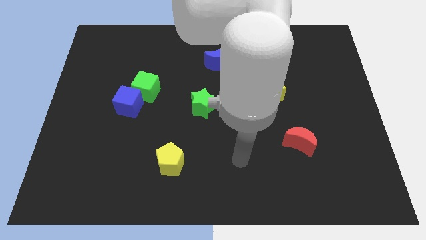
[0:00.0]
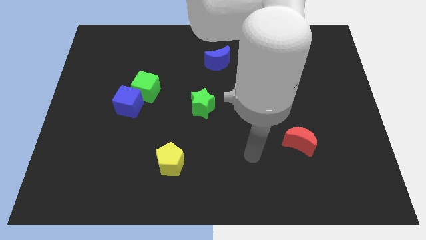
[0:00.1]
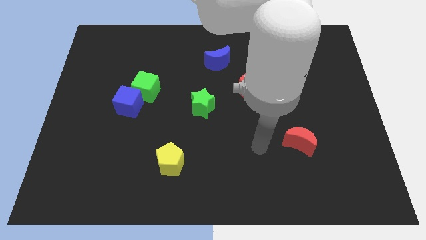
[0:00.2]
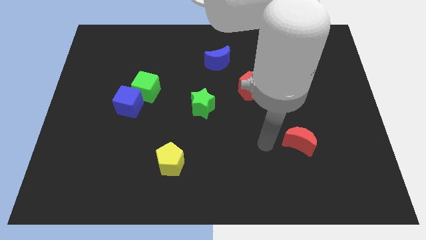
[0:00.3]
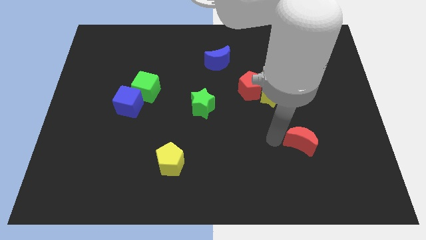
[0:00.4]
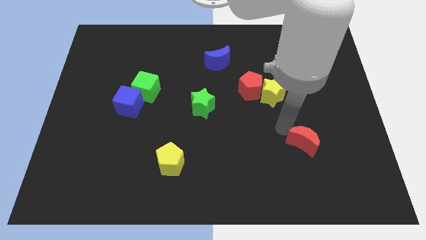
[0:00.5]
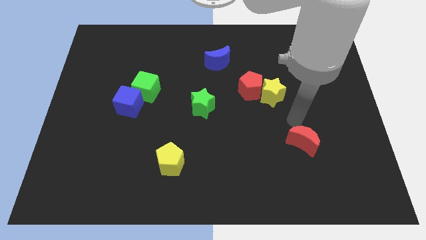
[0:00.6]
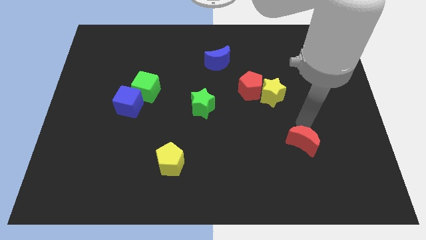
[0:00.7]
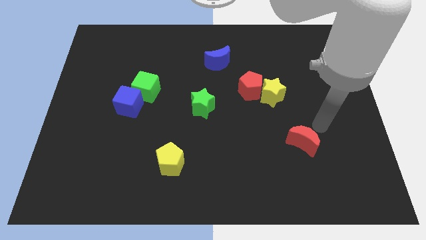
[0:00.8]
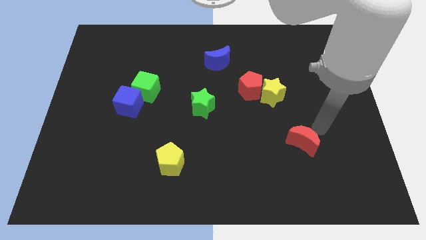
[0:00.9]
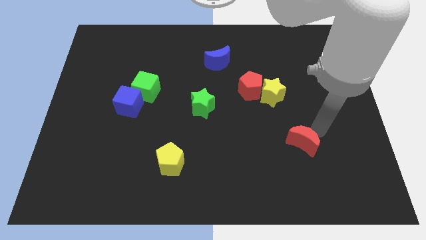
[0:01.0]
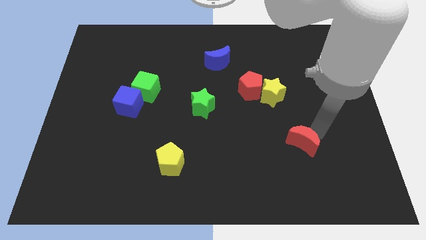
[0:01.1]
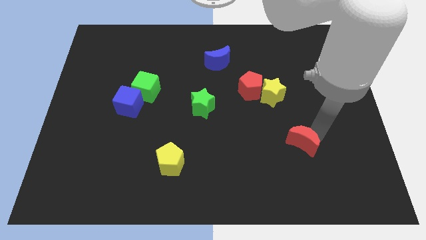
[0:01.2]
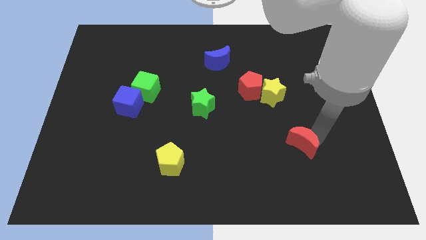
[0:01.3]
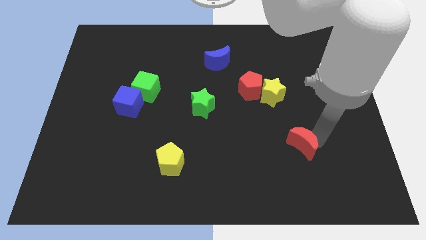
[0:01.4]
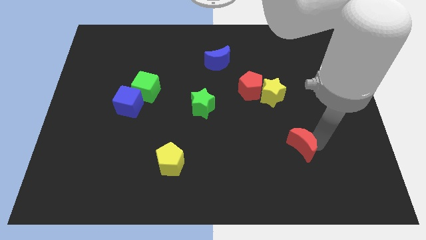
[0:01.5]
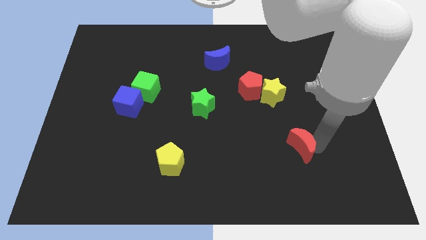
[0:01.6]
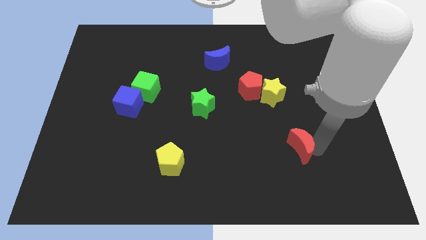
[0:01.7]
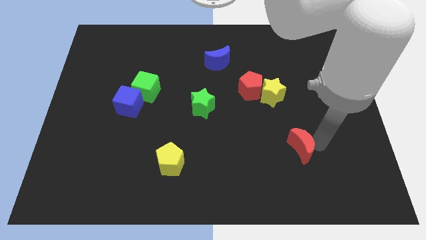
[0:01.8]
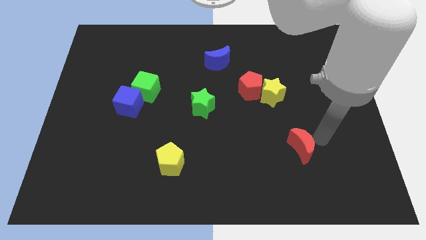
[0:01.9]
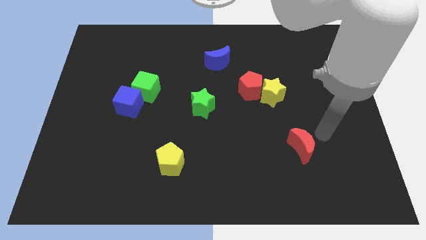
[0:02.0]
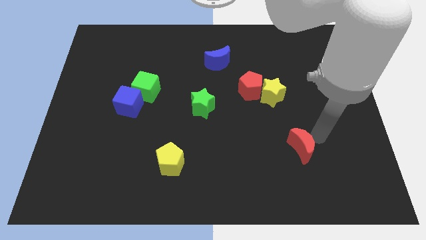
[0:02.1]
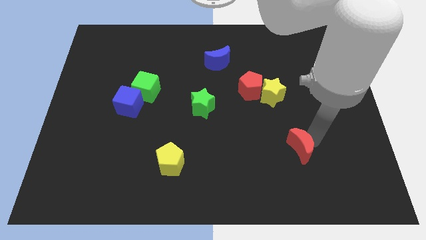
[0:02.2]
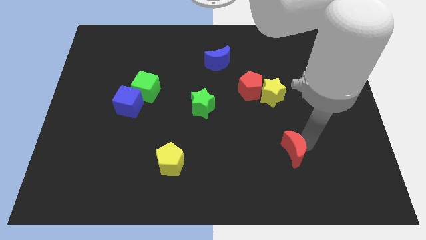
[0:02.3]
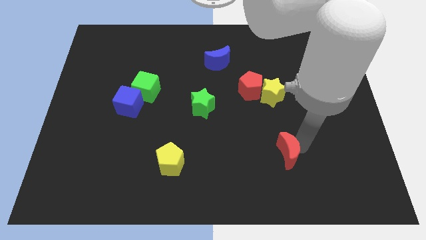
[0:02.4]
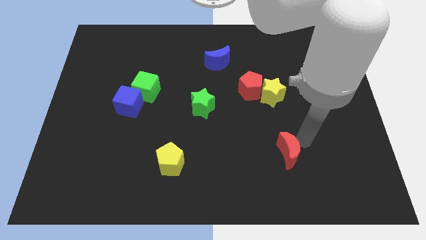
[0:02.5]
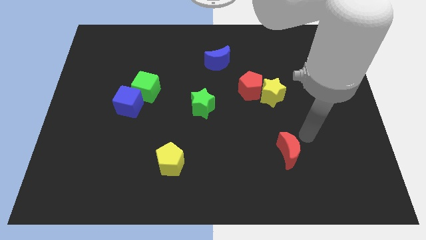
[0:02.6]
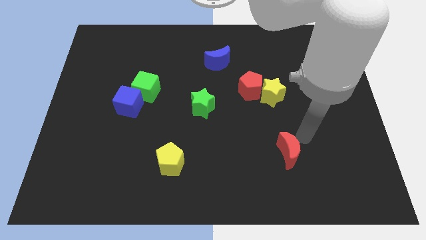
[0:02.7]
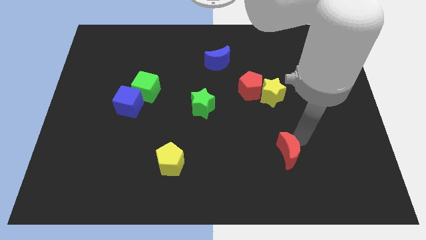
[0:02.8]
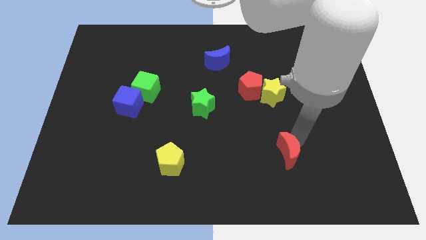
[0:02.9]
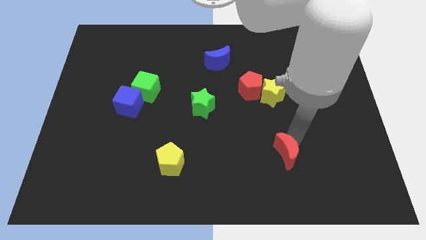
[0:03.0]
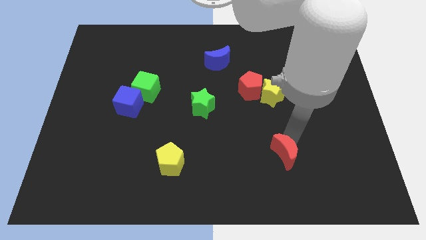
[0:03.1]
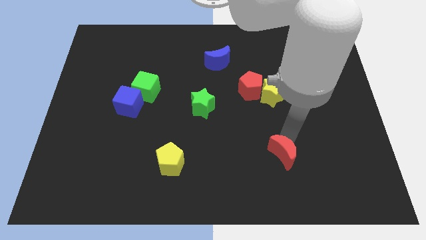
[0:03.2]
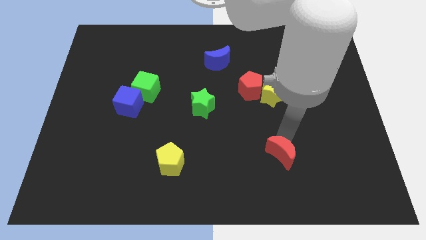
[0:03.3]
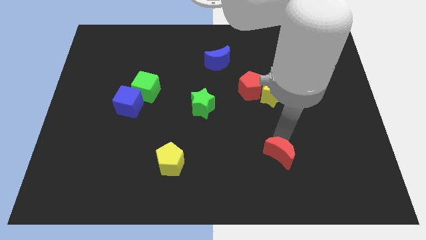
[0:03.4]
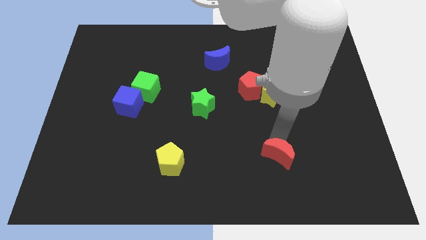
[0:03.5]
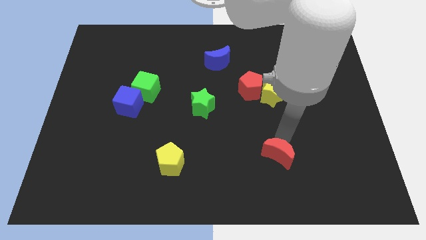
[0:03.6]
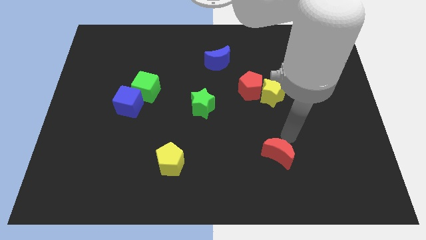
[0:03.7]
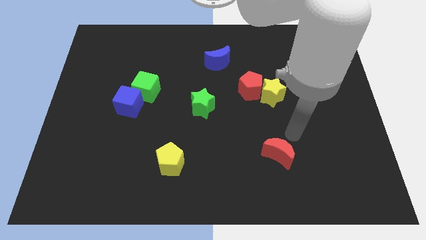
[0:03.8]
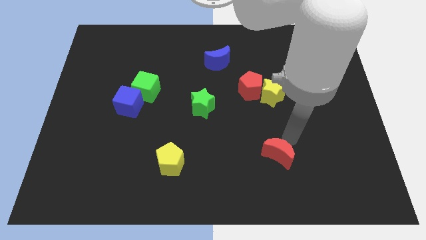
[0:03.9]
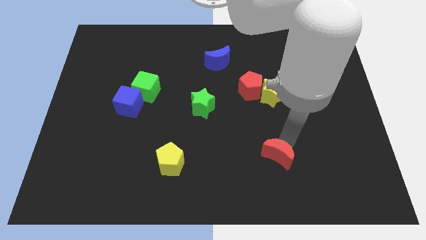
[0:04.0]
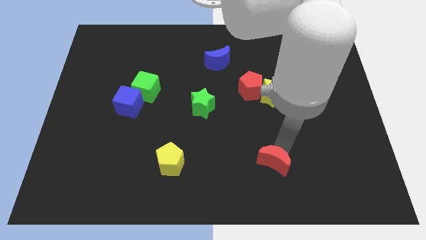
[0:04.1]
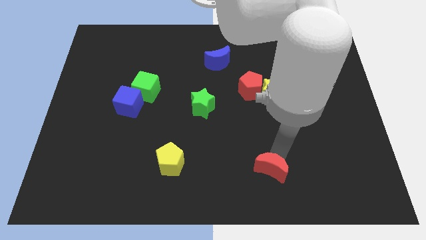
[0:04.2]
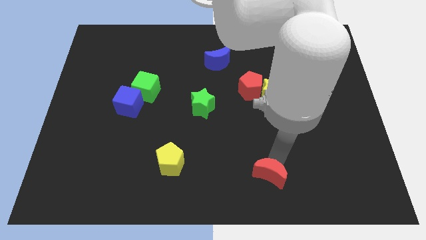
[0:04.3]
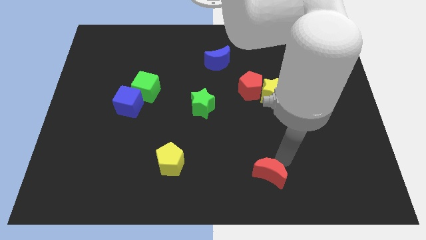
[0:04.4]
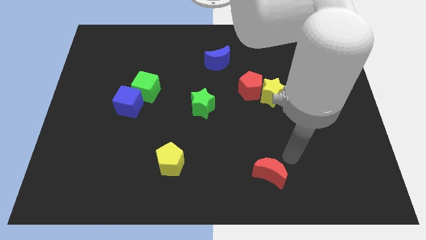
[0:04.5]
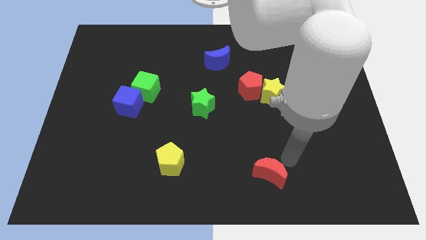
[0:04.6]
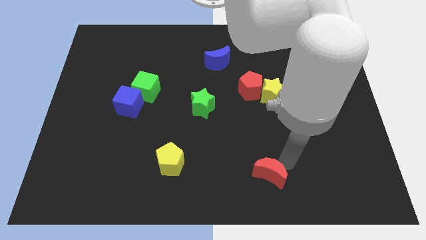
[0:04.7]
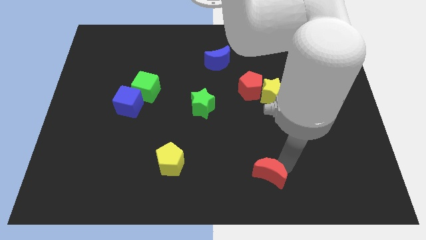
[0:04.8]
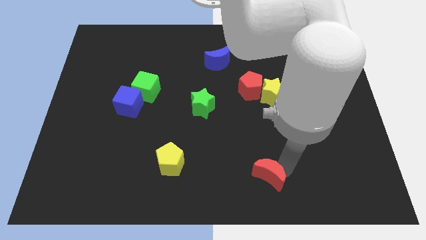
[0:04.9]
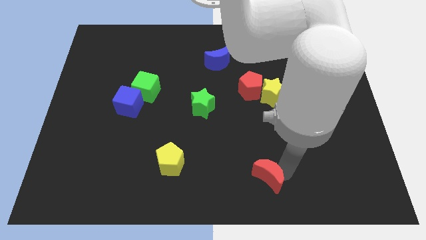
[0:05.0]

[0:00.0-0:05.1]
move the red moon to the bottom side

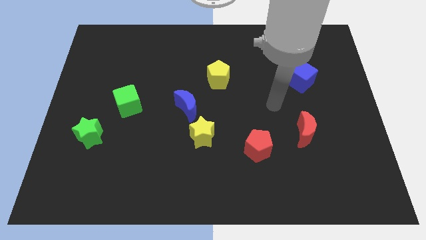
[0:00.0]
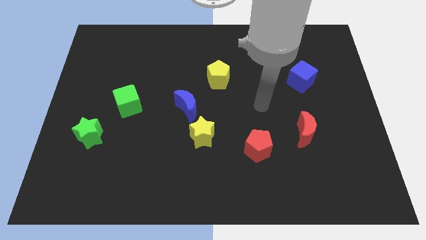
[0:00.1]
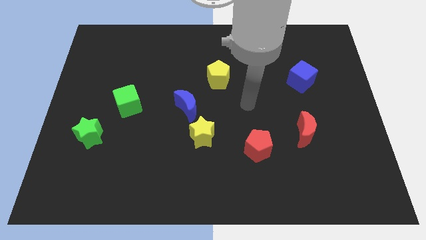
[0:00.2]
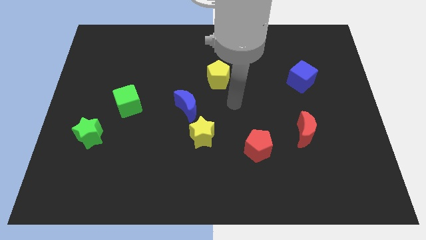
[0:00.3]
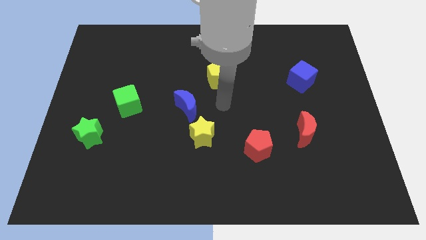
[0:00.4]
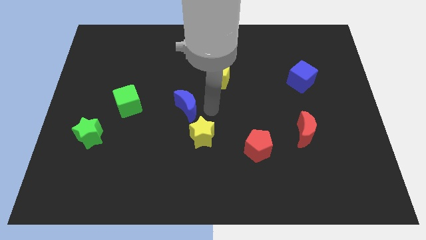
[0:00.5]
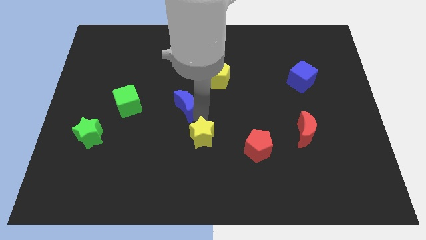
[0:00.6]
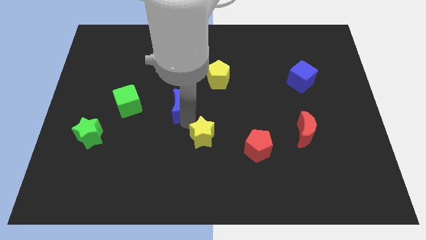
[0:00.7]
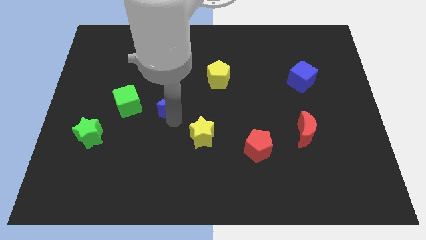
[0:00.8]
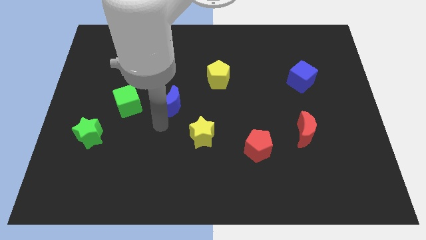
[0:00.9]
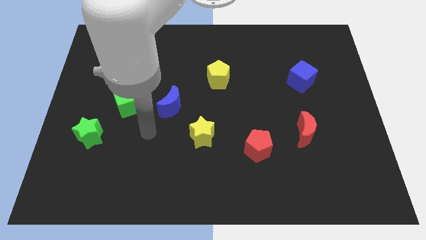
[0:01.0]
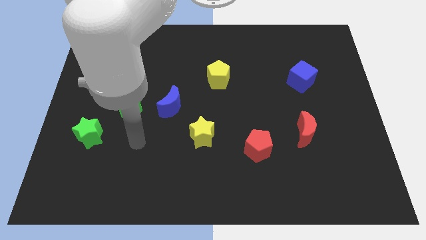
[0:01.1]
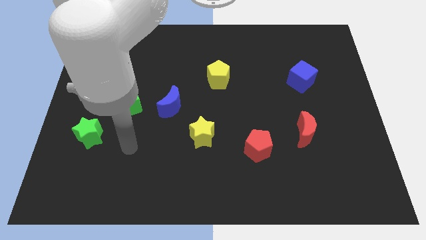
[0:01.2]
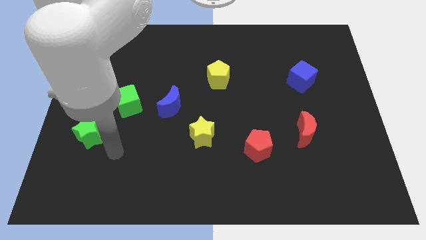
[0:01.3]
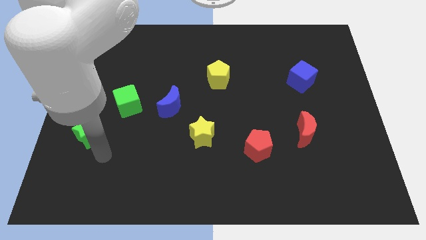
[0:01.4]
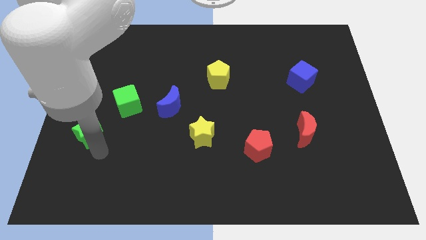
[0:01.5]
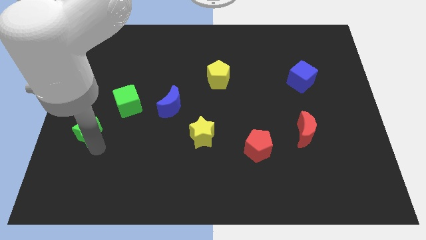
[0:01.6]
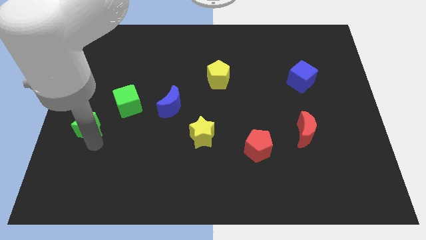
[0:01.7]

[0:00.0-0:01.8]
put the green star to the center left
